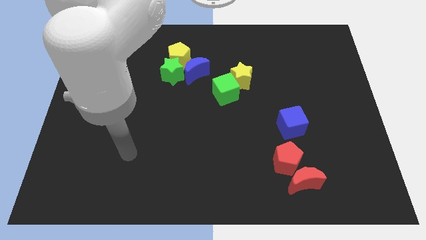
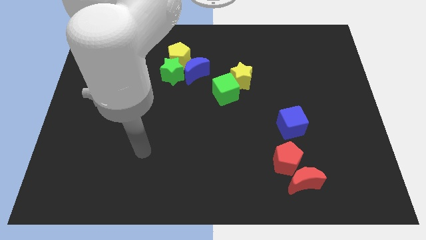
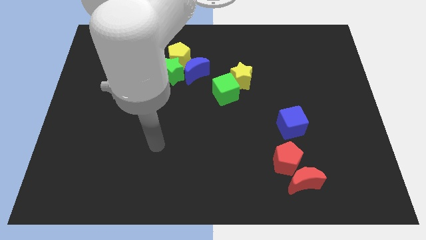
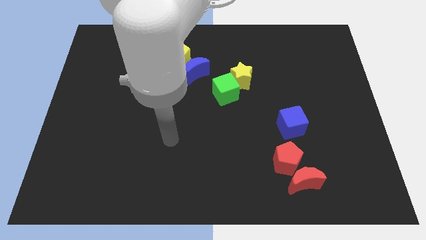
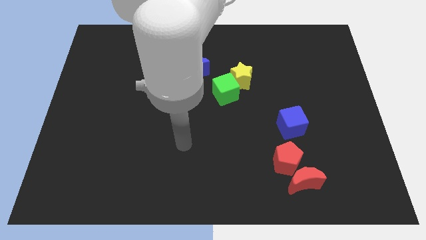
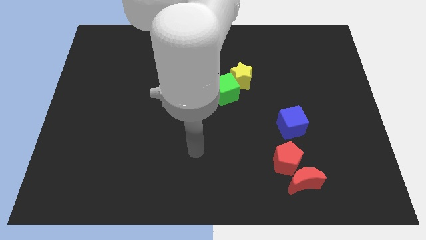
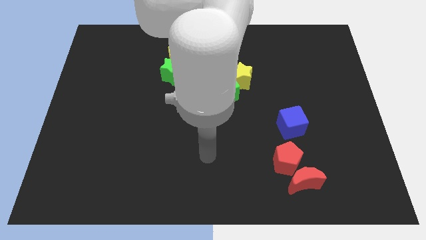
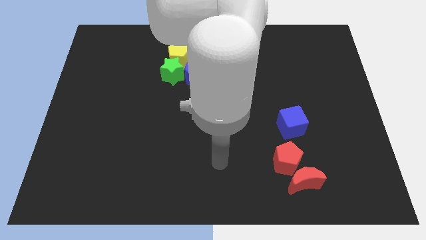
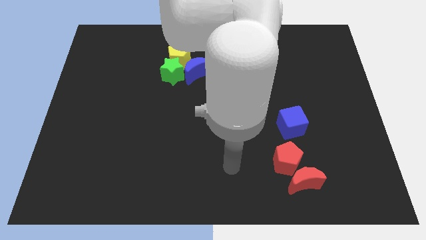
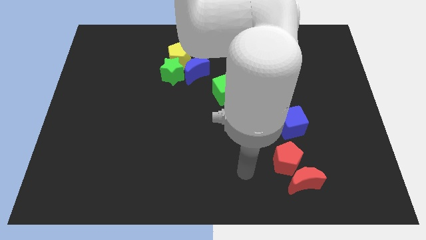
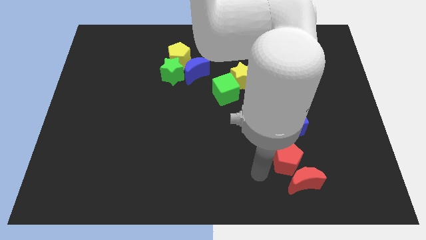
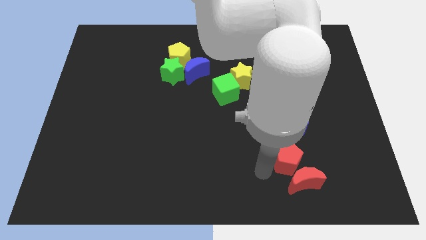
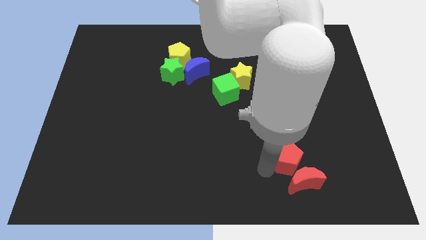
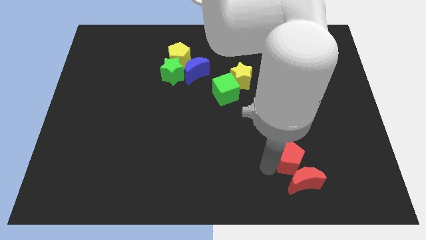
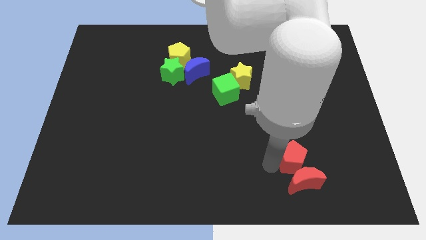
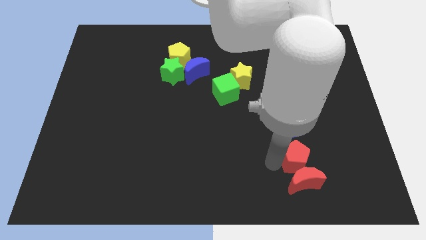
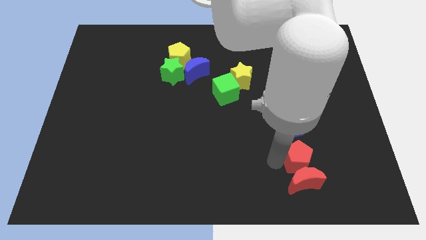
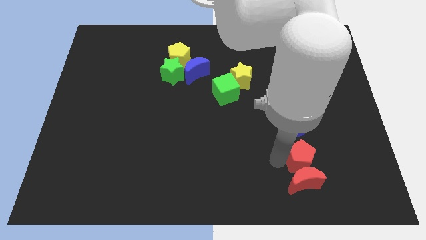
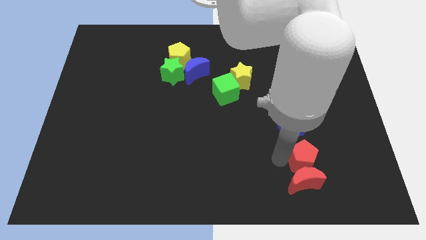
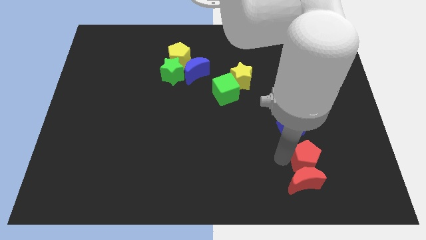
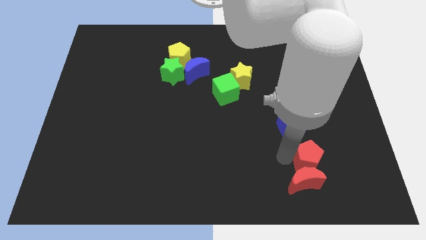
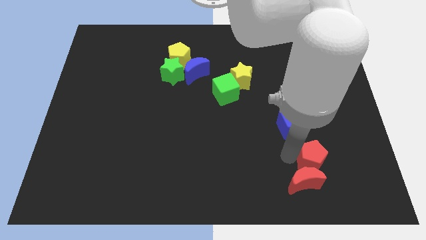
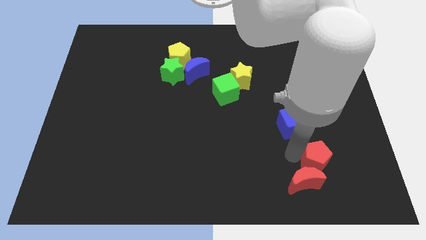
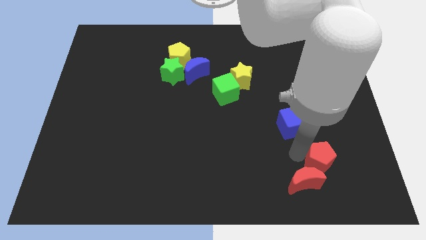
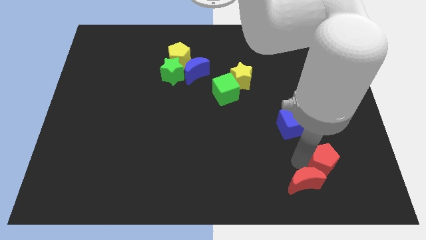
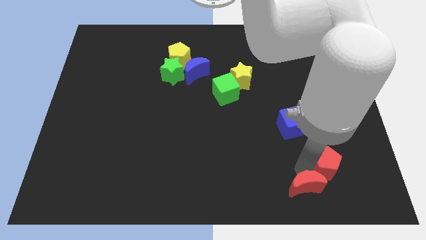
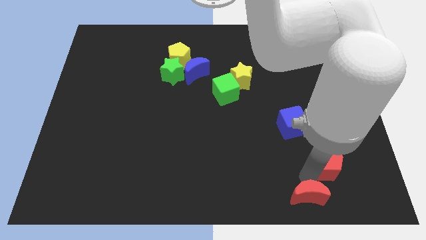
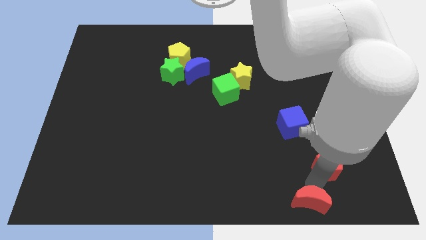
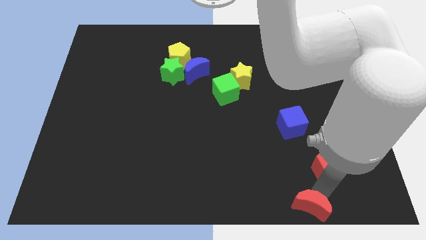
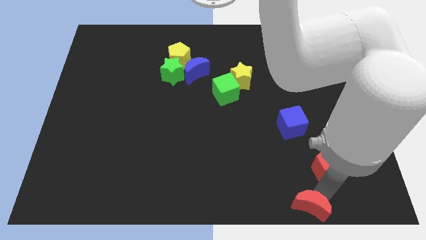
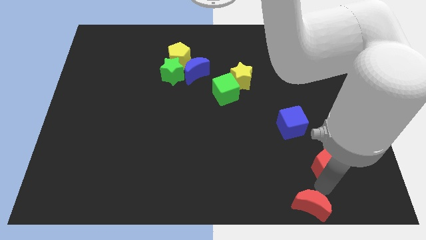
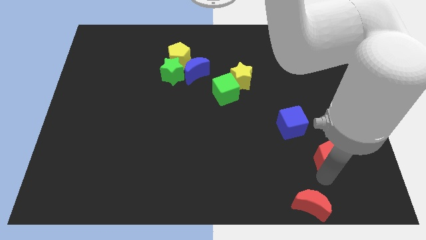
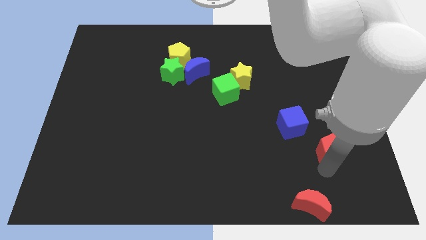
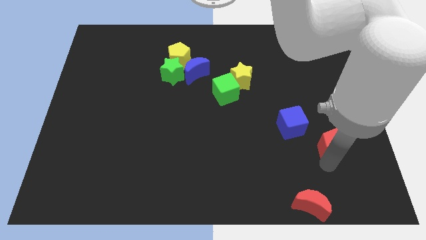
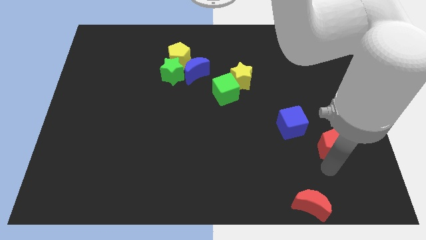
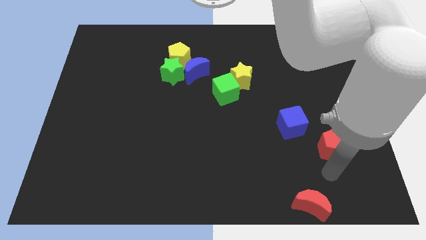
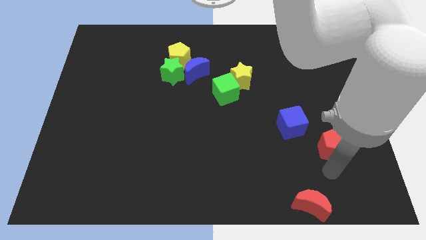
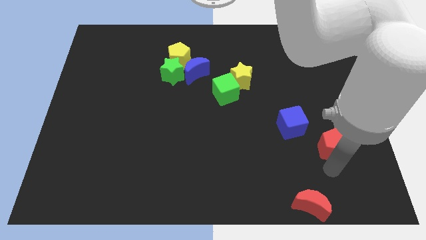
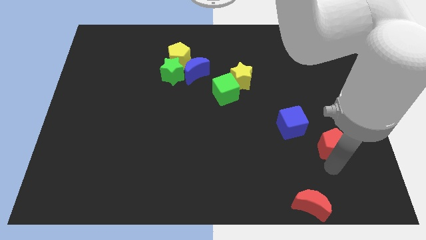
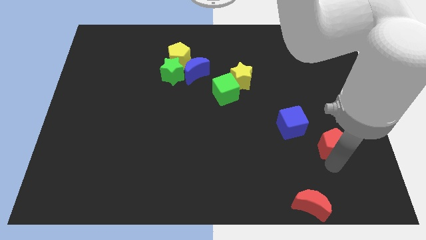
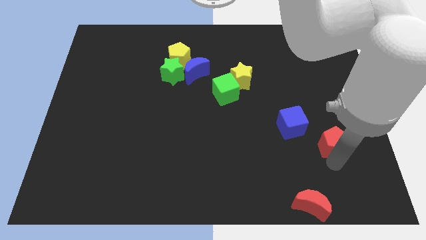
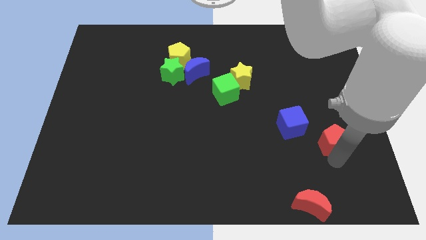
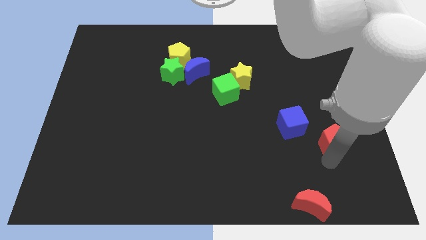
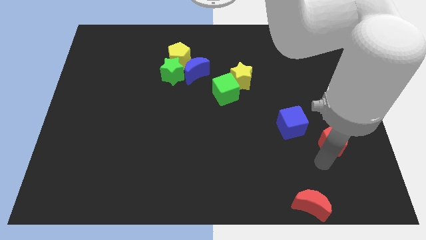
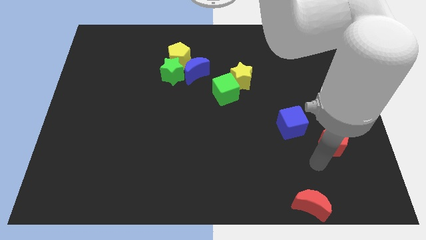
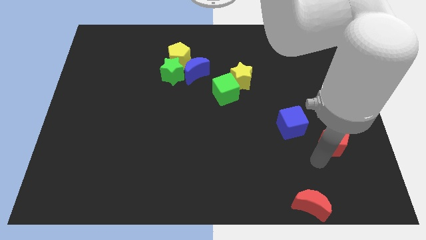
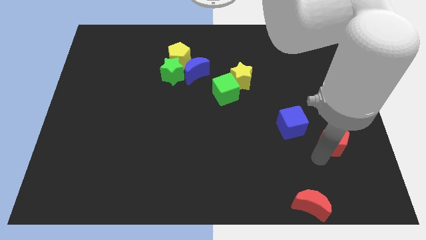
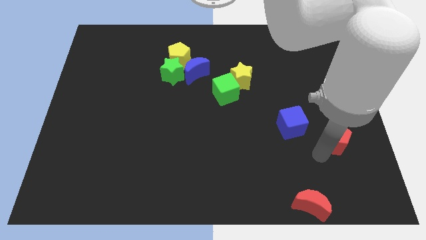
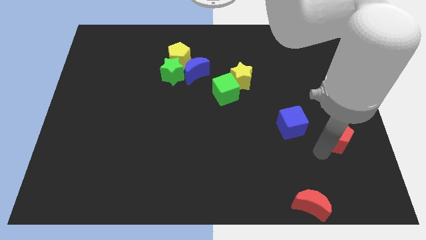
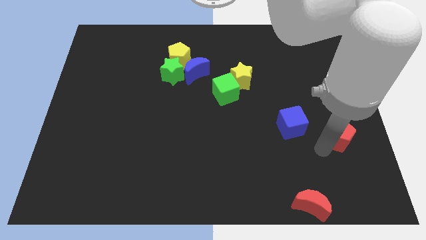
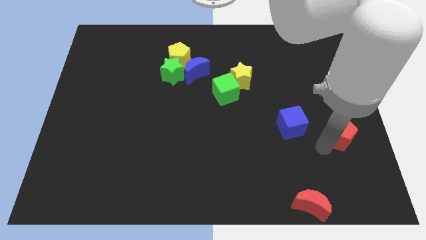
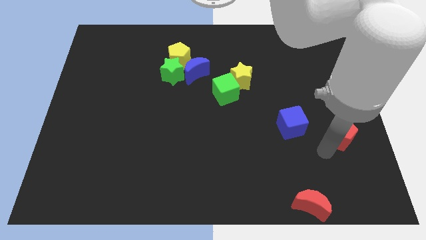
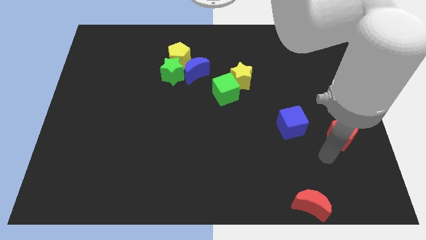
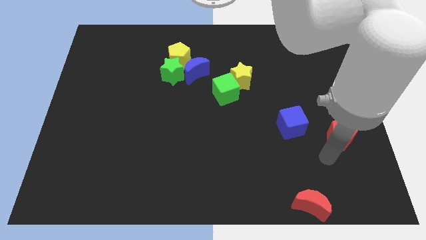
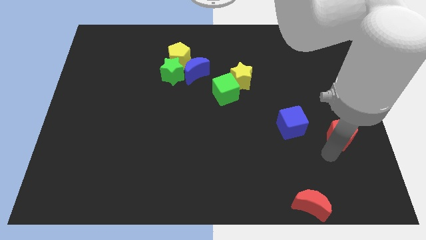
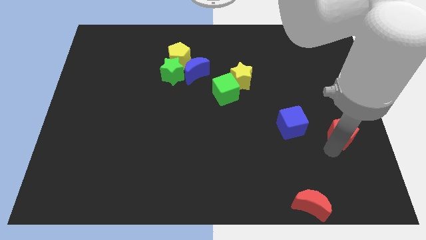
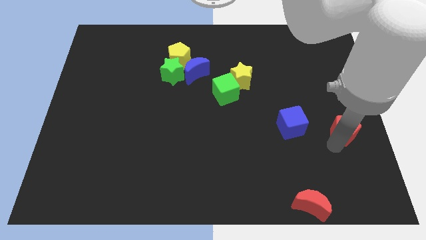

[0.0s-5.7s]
move the red pentagon to the center right
